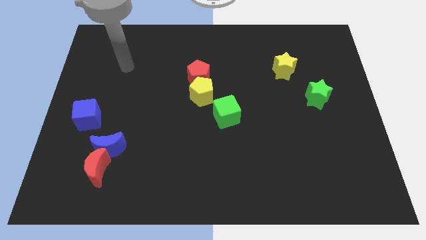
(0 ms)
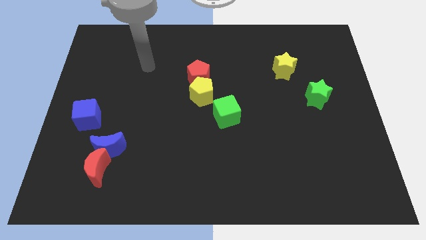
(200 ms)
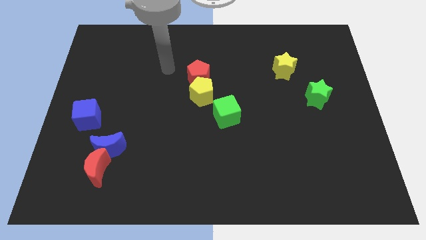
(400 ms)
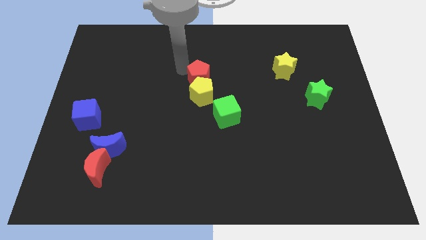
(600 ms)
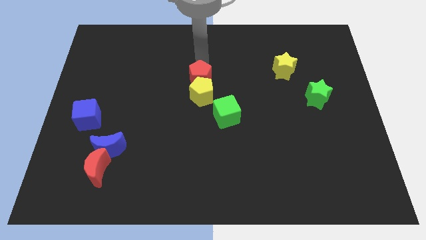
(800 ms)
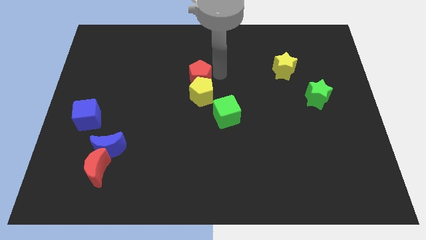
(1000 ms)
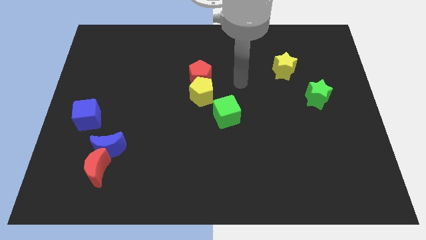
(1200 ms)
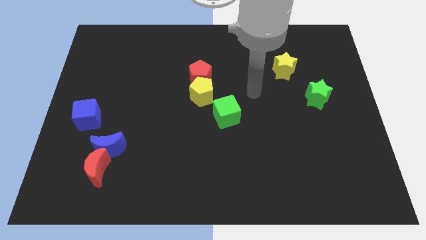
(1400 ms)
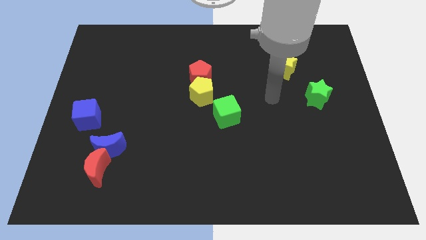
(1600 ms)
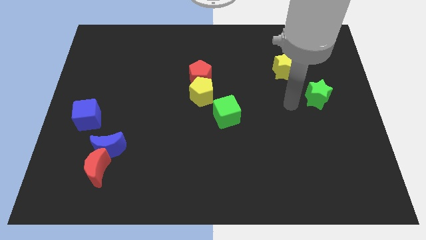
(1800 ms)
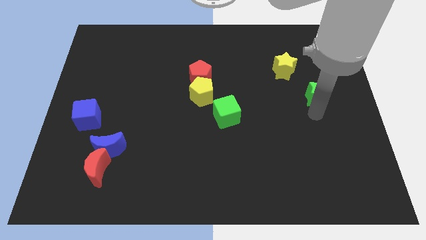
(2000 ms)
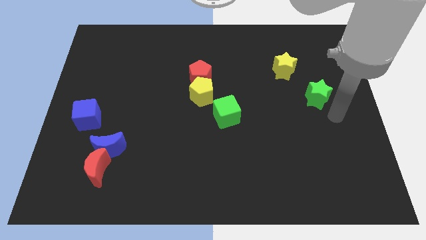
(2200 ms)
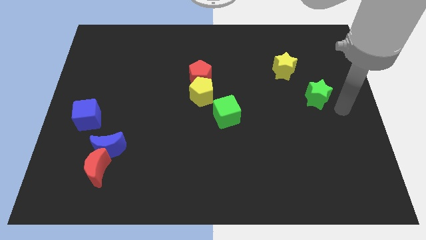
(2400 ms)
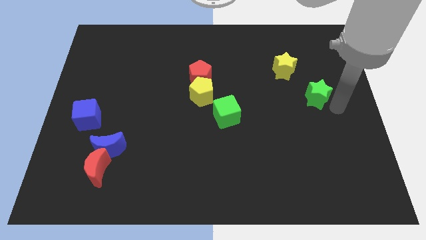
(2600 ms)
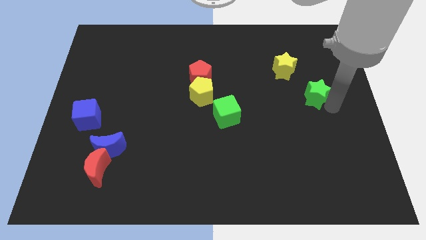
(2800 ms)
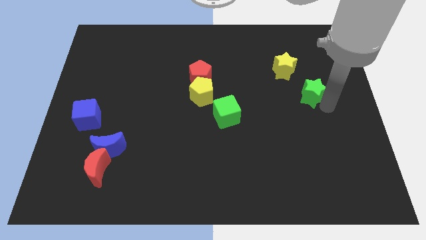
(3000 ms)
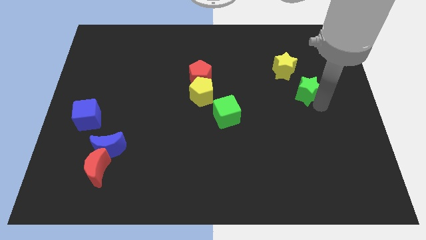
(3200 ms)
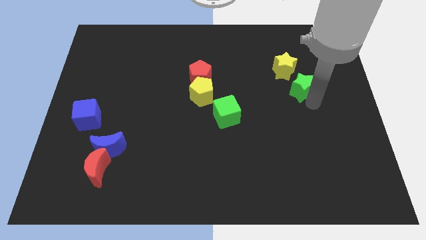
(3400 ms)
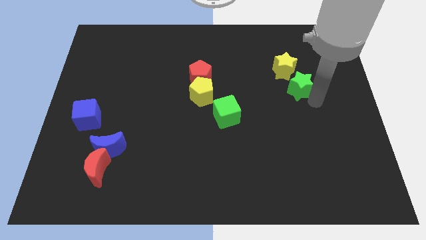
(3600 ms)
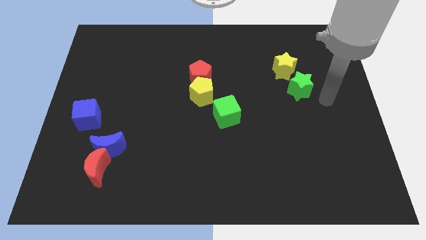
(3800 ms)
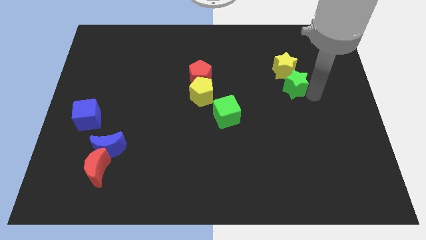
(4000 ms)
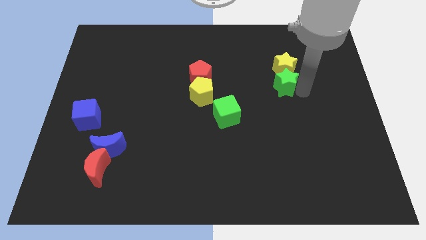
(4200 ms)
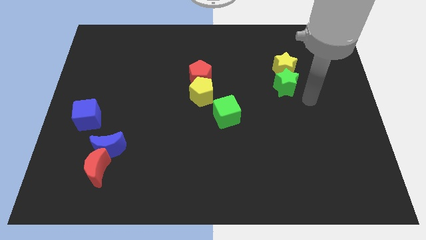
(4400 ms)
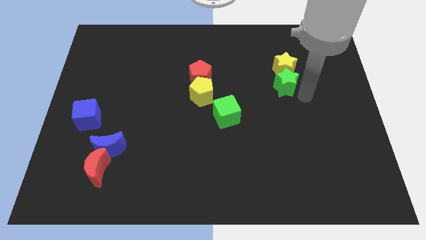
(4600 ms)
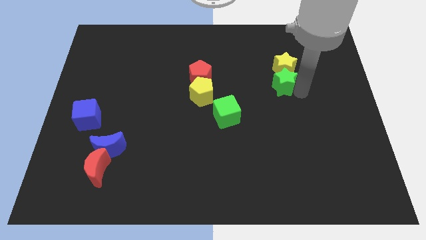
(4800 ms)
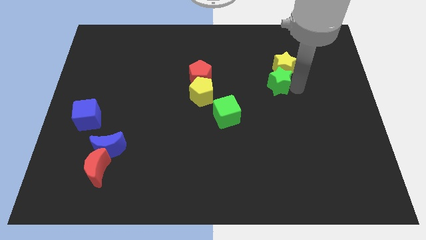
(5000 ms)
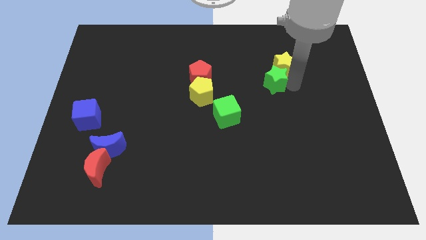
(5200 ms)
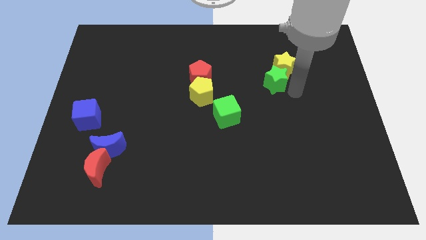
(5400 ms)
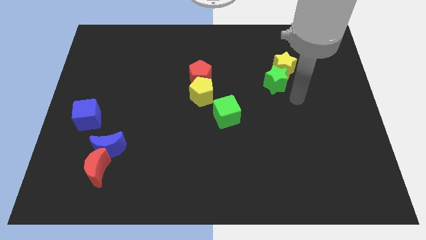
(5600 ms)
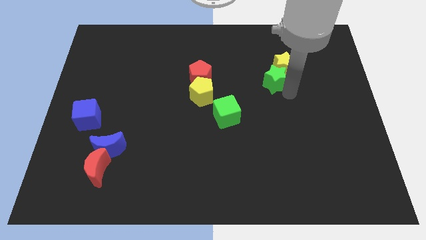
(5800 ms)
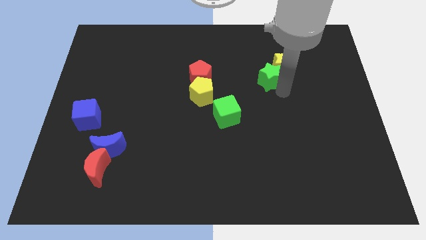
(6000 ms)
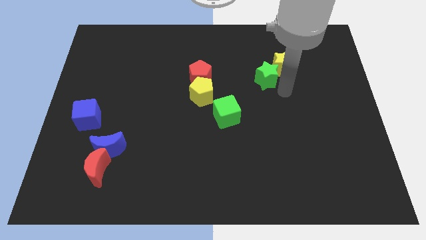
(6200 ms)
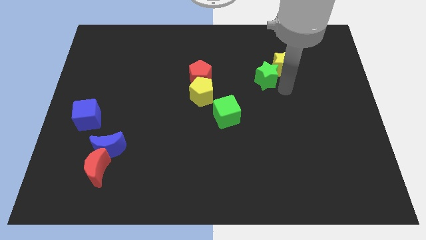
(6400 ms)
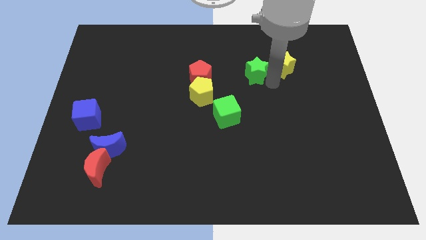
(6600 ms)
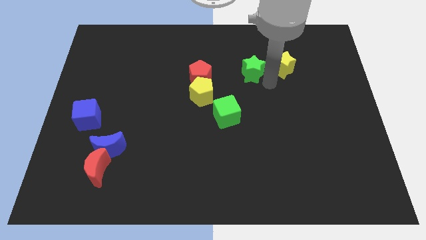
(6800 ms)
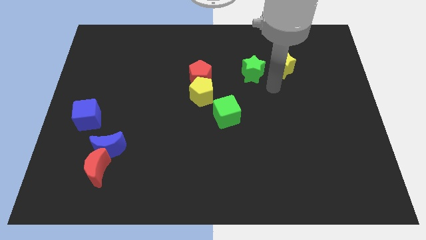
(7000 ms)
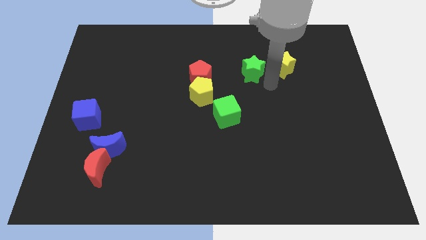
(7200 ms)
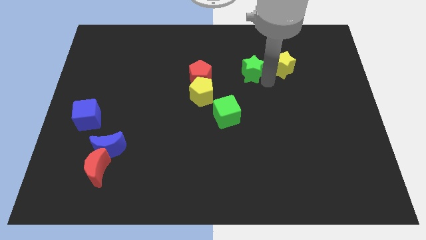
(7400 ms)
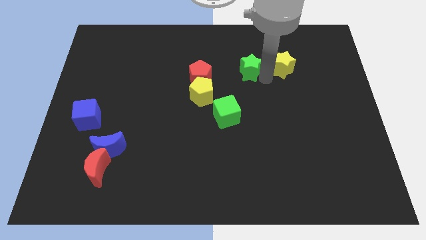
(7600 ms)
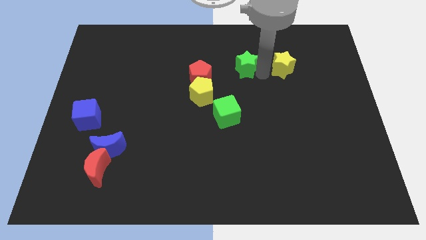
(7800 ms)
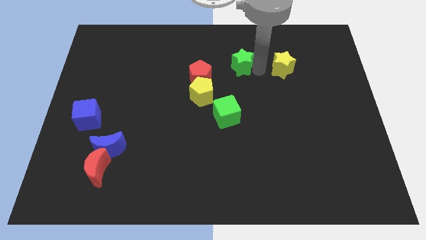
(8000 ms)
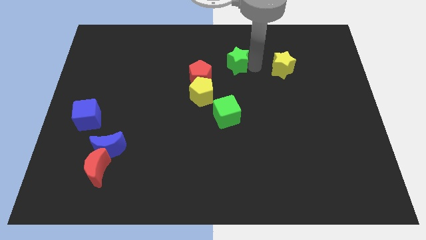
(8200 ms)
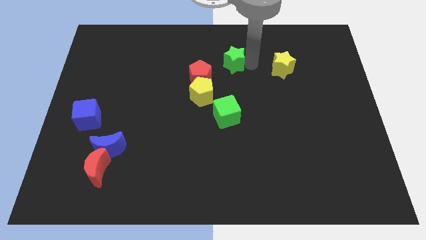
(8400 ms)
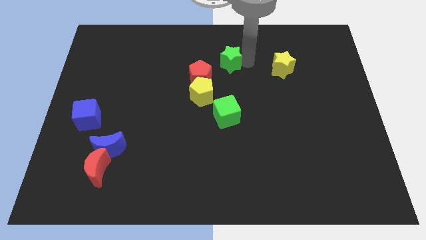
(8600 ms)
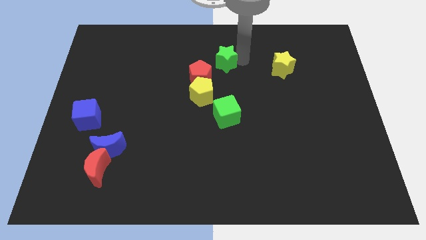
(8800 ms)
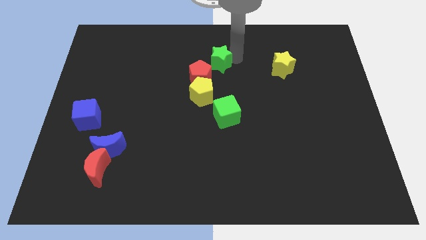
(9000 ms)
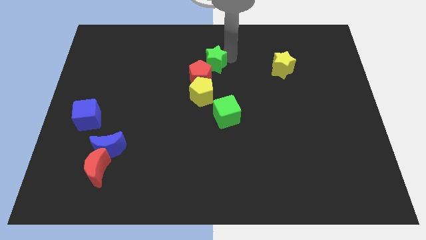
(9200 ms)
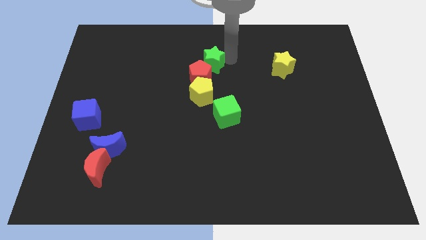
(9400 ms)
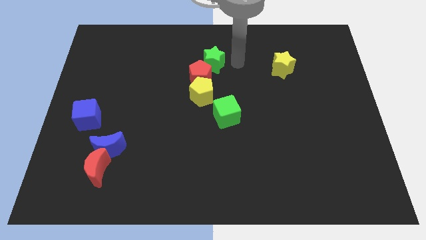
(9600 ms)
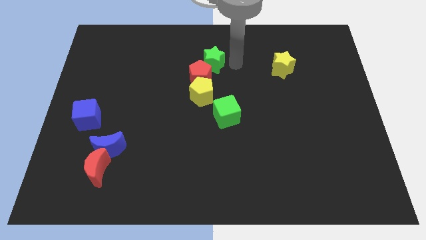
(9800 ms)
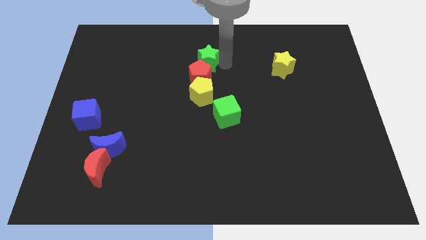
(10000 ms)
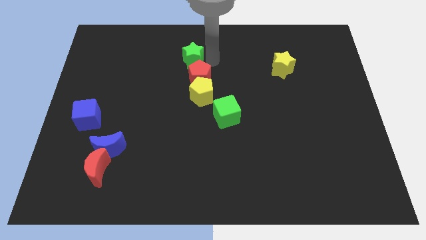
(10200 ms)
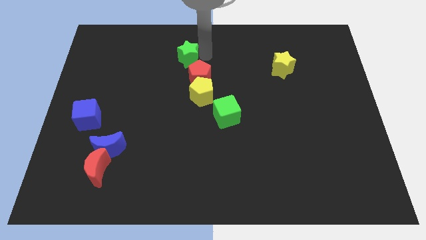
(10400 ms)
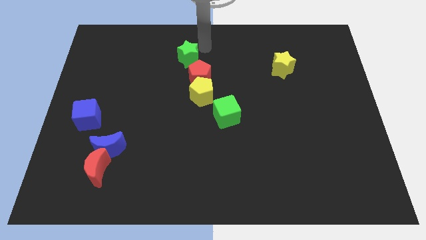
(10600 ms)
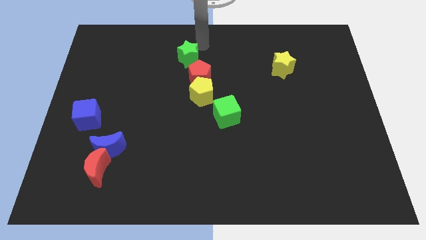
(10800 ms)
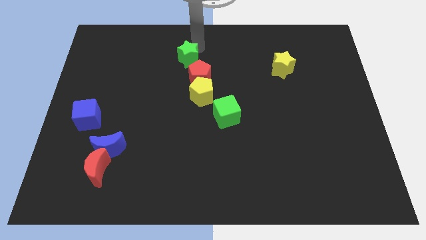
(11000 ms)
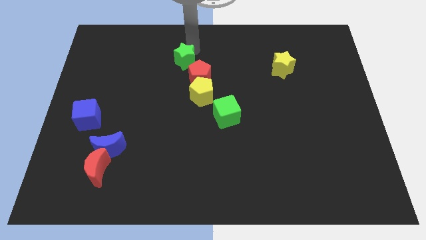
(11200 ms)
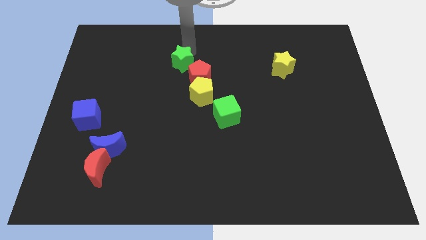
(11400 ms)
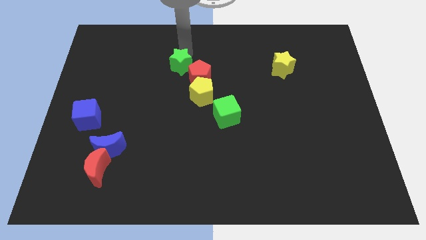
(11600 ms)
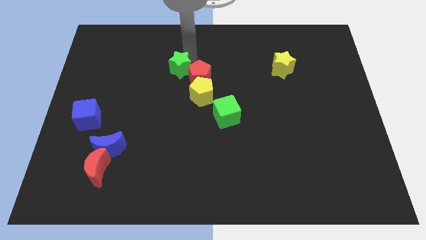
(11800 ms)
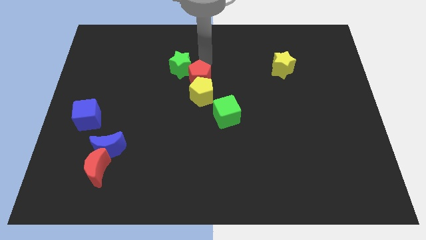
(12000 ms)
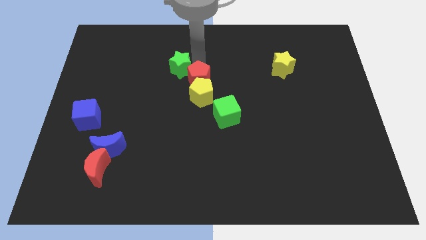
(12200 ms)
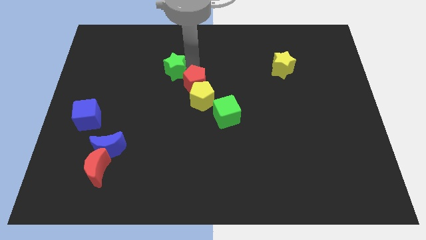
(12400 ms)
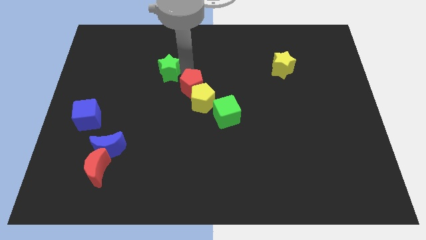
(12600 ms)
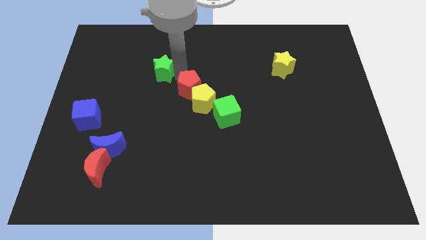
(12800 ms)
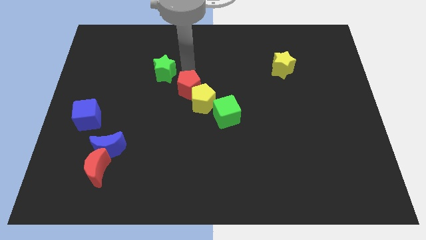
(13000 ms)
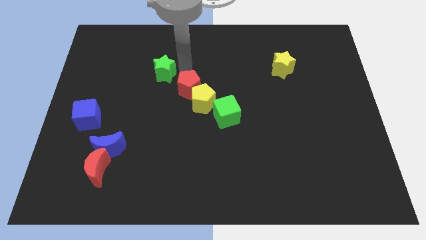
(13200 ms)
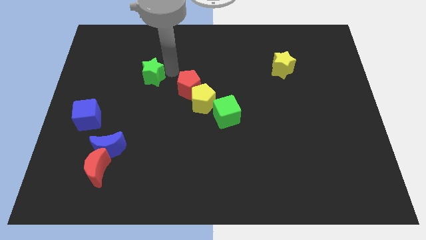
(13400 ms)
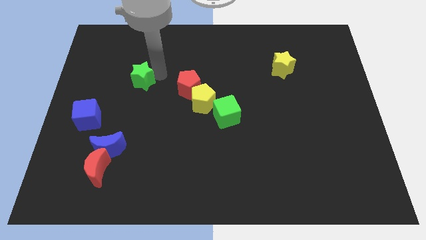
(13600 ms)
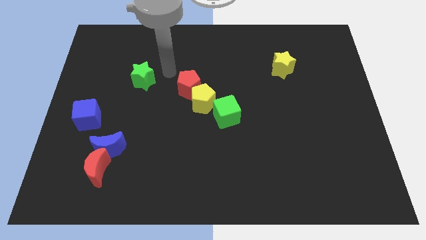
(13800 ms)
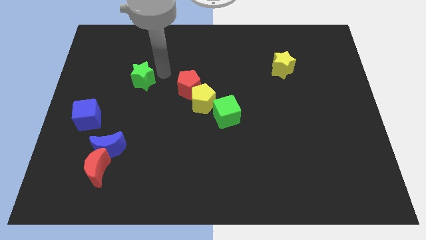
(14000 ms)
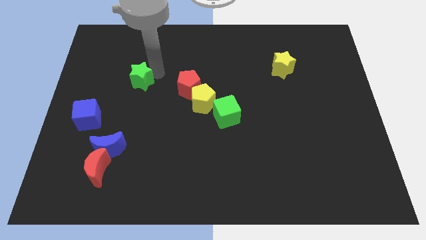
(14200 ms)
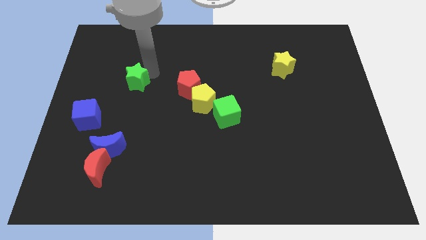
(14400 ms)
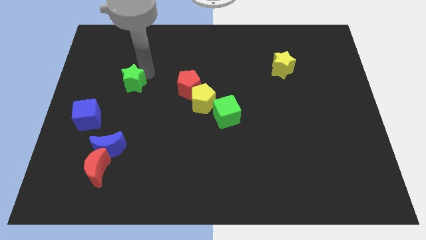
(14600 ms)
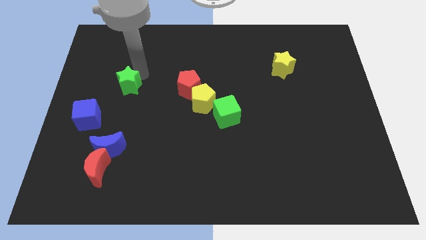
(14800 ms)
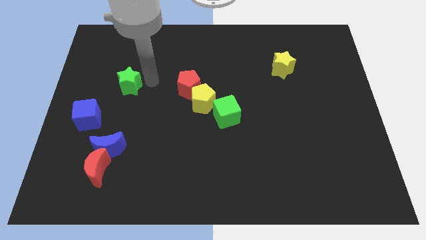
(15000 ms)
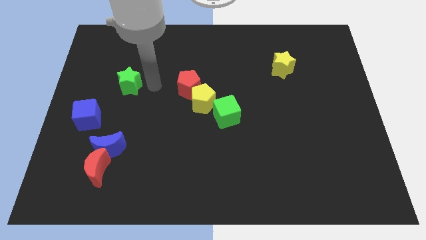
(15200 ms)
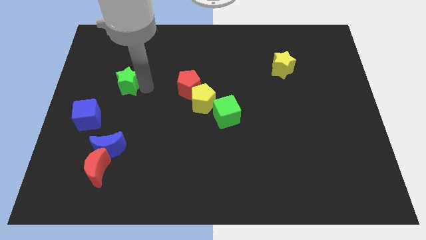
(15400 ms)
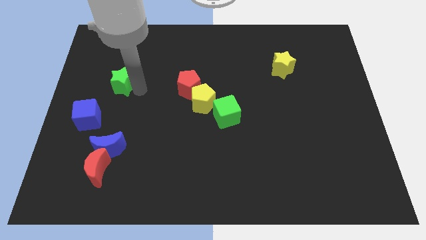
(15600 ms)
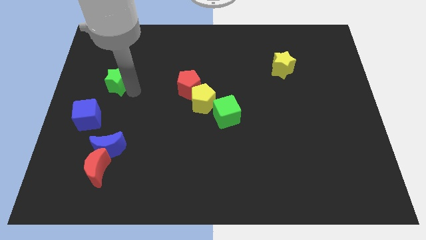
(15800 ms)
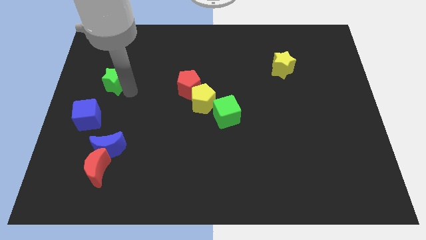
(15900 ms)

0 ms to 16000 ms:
push the green star to the top side of the blue cube

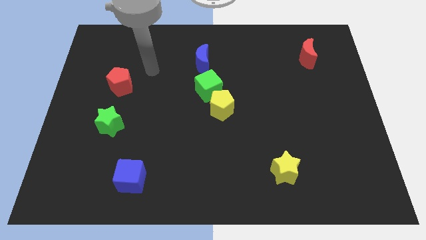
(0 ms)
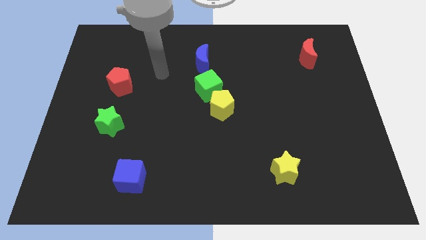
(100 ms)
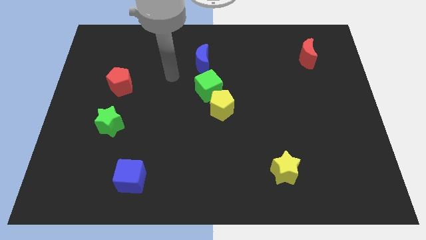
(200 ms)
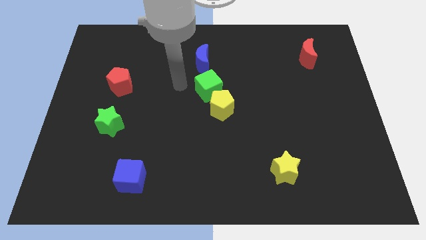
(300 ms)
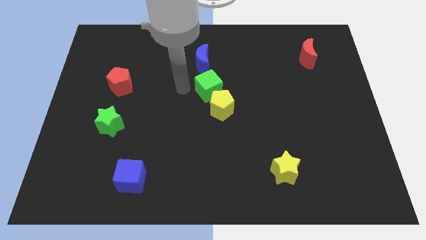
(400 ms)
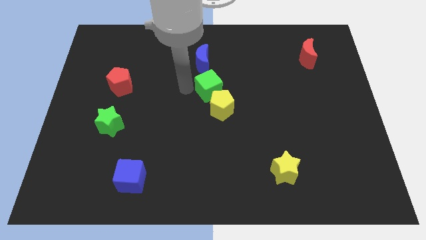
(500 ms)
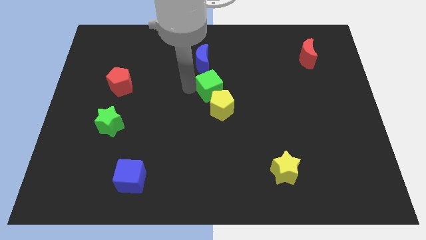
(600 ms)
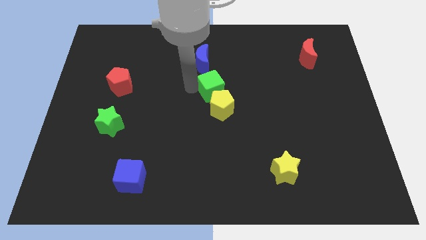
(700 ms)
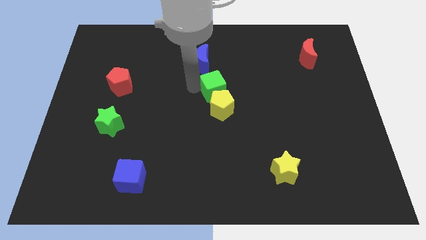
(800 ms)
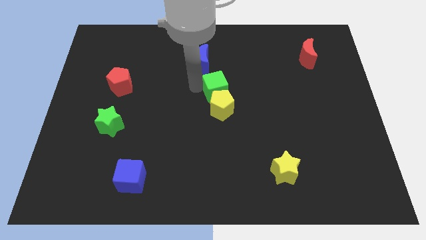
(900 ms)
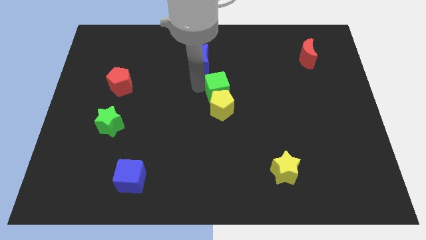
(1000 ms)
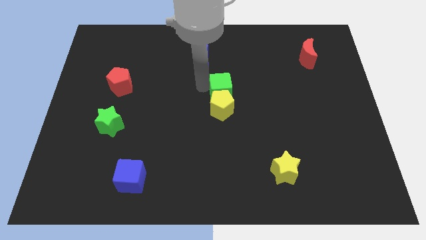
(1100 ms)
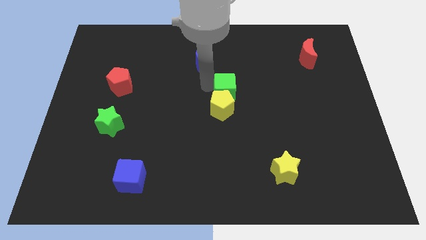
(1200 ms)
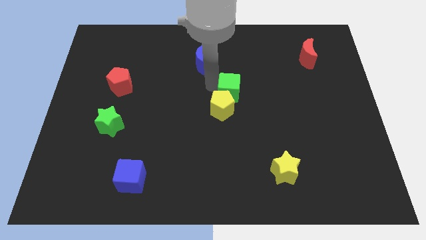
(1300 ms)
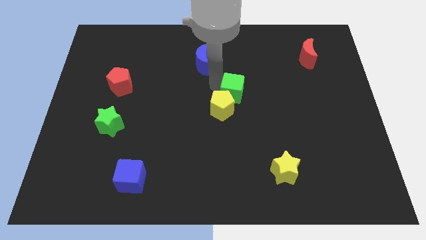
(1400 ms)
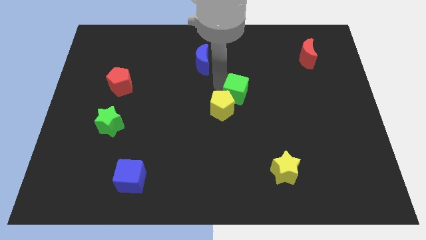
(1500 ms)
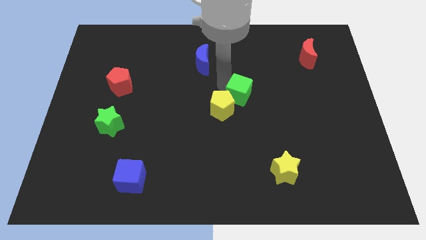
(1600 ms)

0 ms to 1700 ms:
put the green cube to the right of the yellow pentagon
